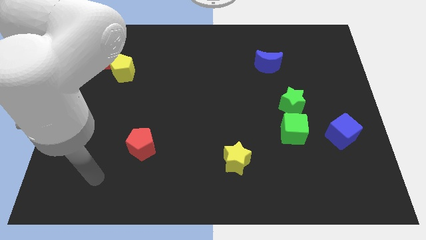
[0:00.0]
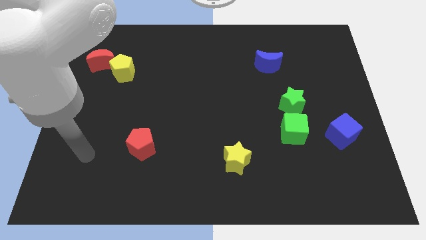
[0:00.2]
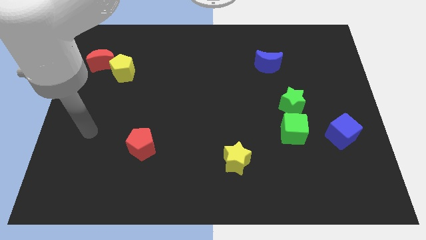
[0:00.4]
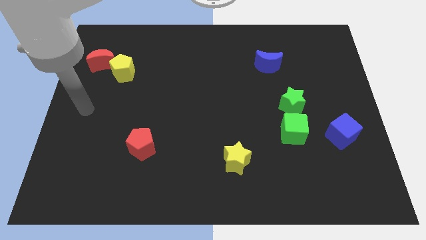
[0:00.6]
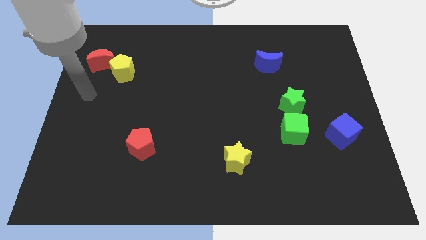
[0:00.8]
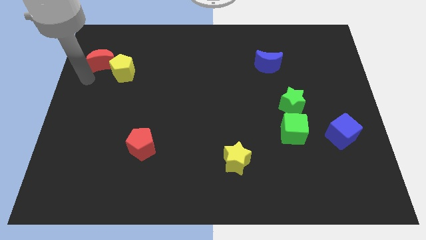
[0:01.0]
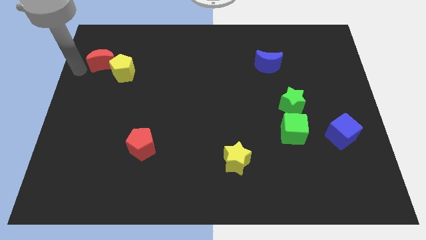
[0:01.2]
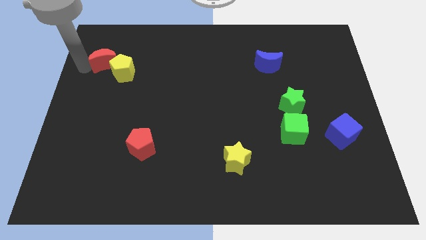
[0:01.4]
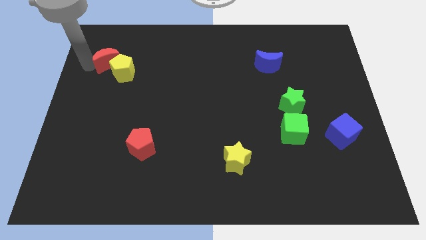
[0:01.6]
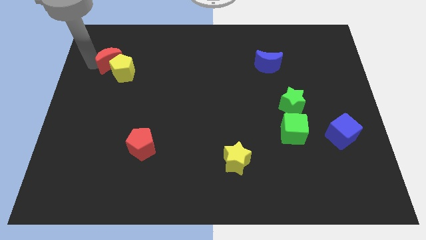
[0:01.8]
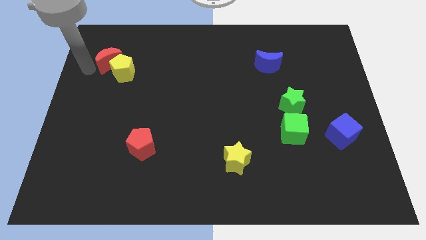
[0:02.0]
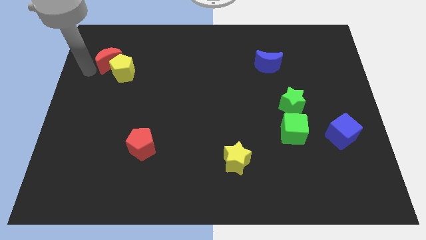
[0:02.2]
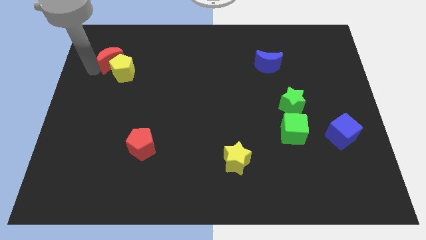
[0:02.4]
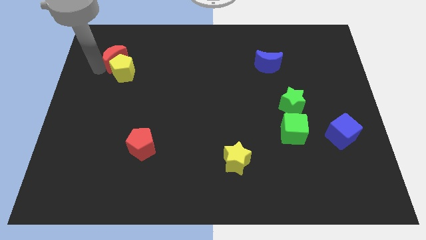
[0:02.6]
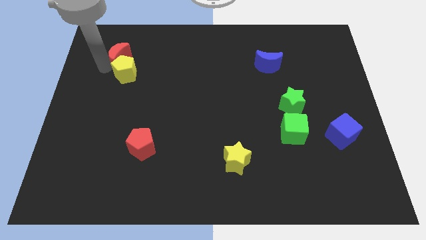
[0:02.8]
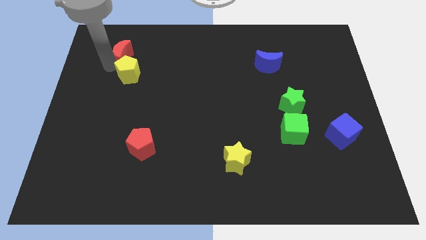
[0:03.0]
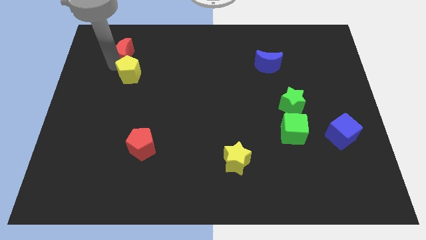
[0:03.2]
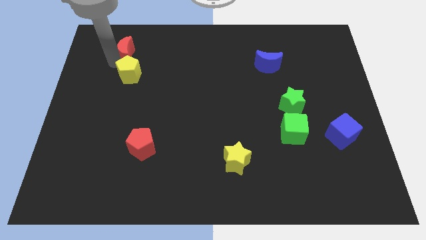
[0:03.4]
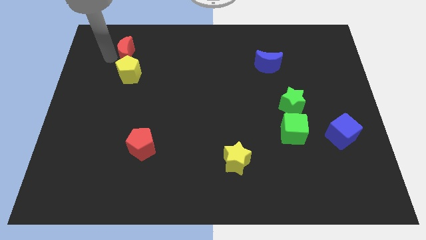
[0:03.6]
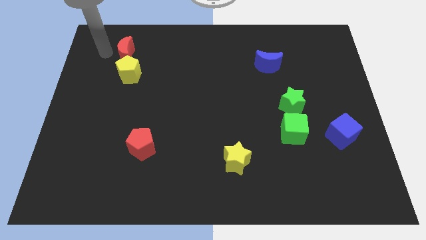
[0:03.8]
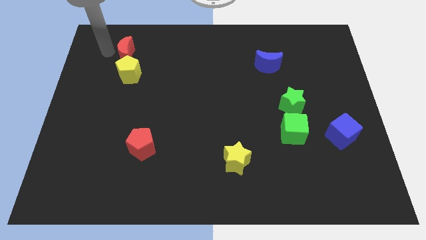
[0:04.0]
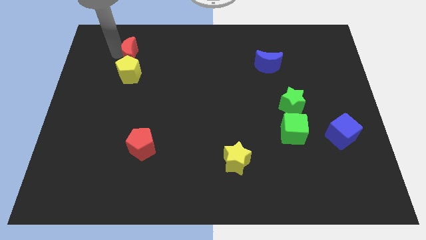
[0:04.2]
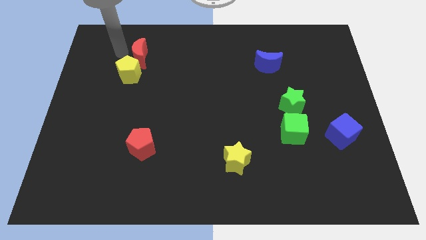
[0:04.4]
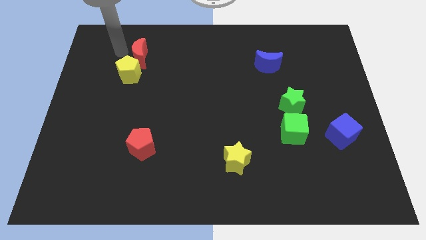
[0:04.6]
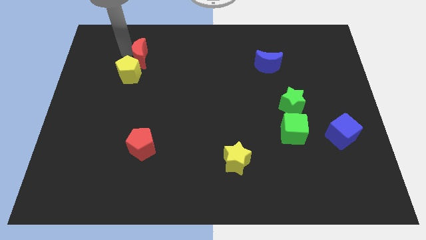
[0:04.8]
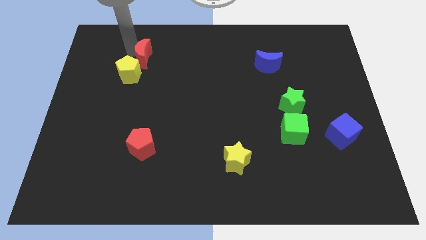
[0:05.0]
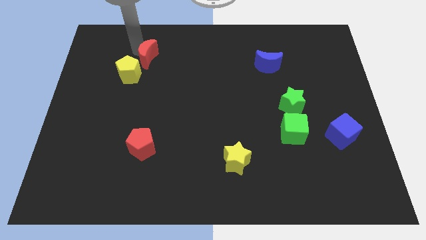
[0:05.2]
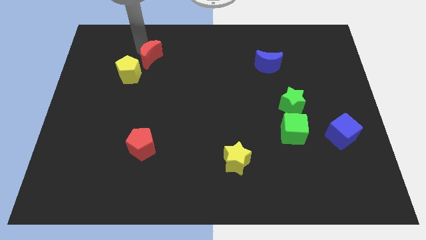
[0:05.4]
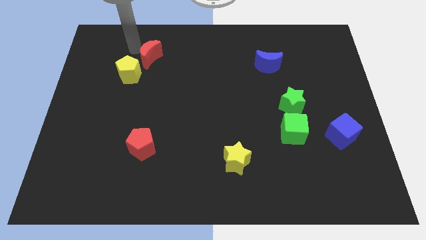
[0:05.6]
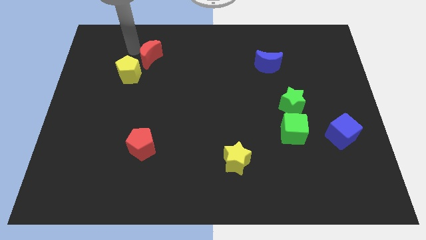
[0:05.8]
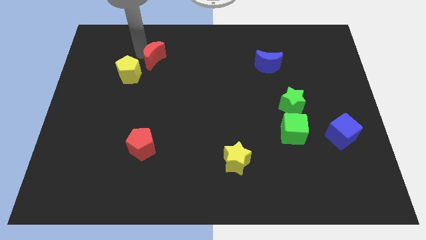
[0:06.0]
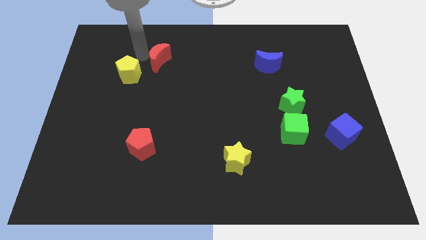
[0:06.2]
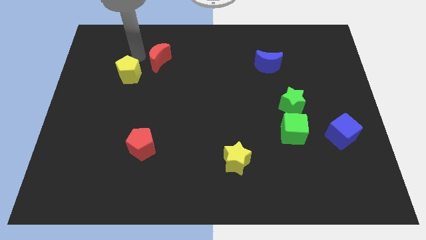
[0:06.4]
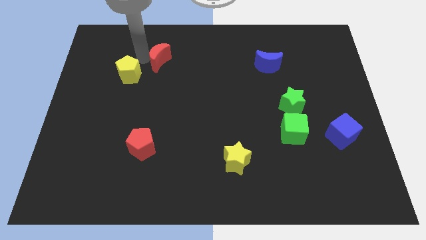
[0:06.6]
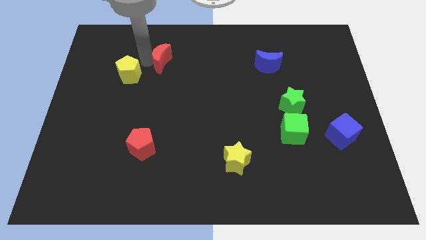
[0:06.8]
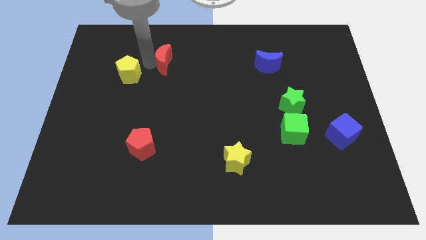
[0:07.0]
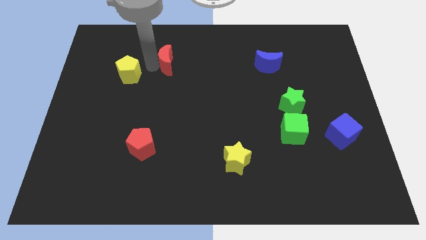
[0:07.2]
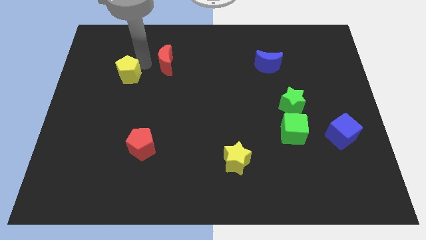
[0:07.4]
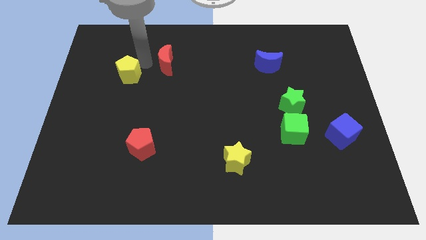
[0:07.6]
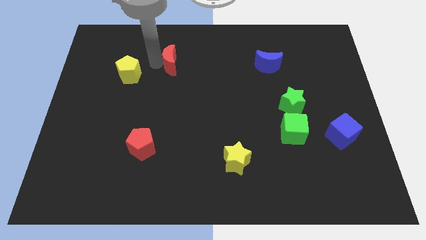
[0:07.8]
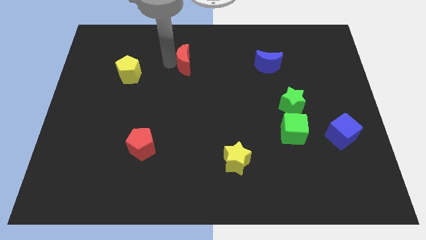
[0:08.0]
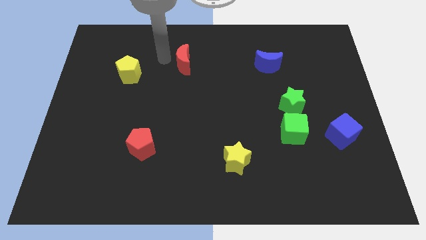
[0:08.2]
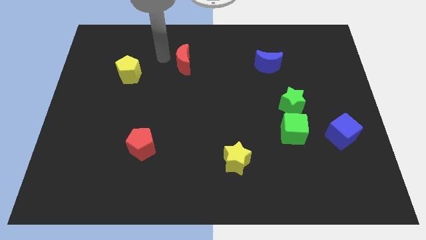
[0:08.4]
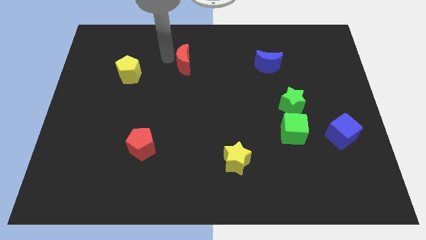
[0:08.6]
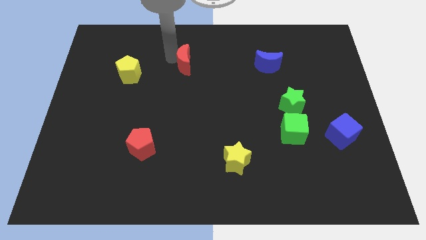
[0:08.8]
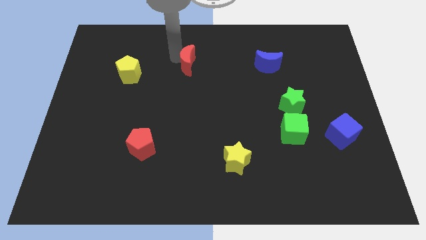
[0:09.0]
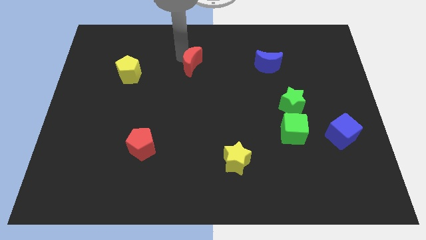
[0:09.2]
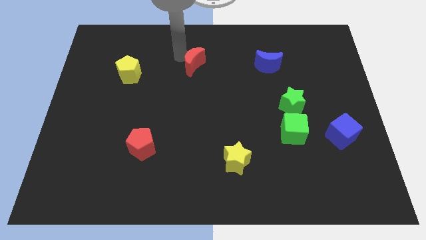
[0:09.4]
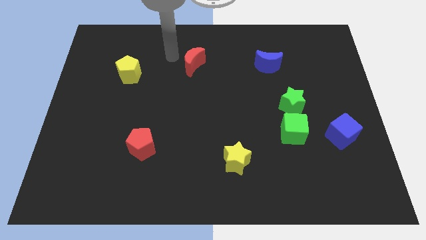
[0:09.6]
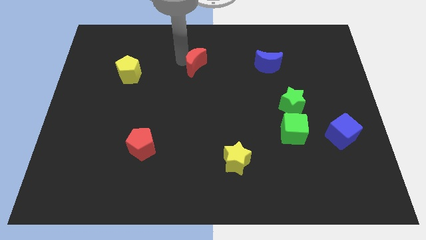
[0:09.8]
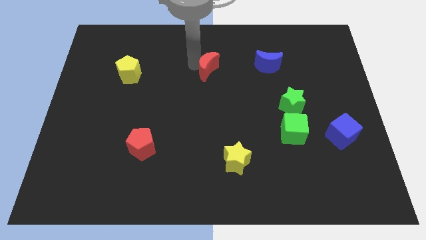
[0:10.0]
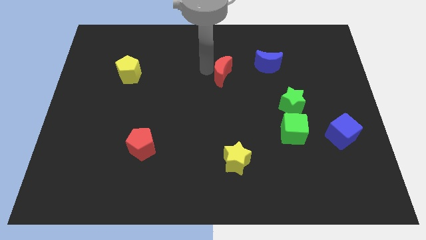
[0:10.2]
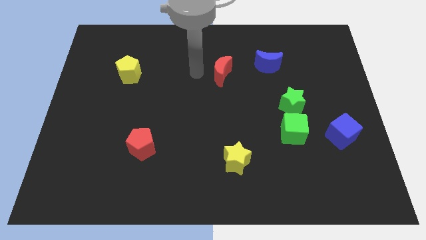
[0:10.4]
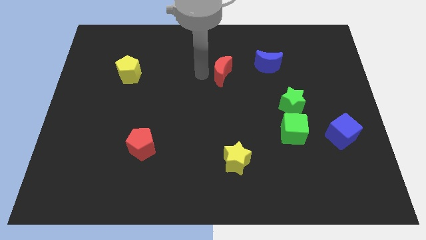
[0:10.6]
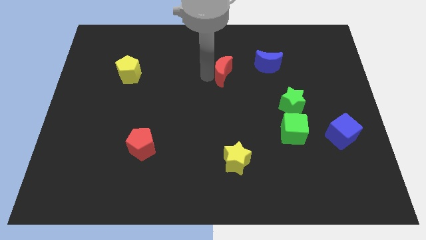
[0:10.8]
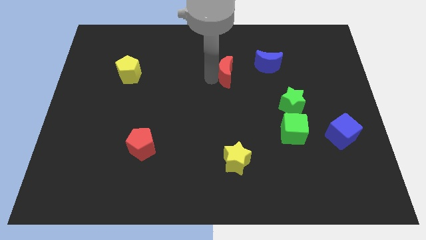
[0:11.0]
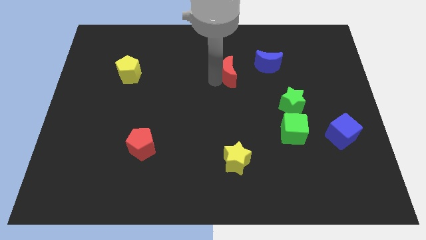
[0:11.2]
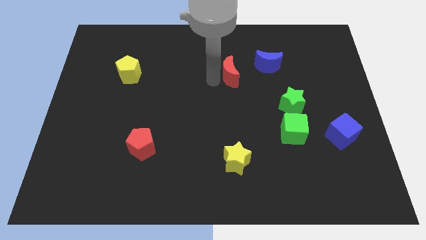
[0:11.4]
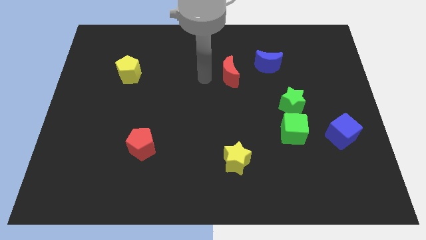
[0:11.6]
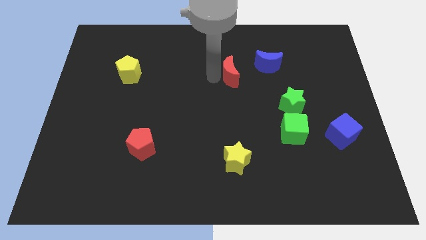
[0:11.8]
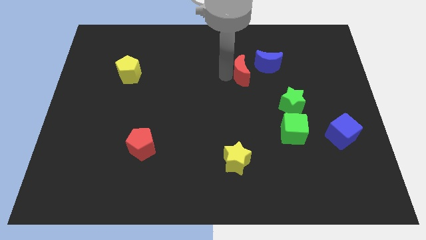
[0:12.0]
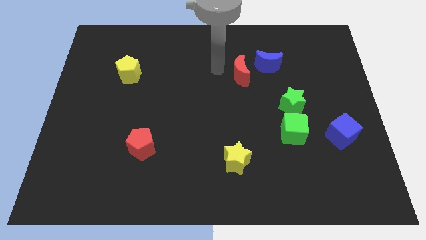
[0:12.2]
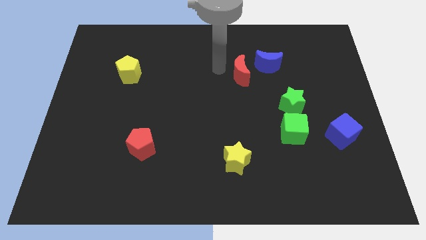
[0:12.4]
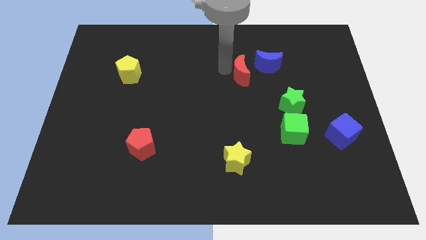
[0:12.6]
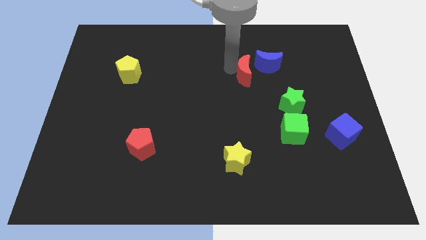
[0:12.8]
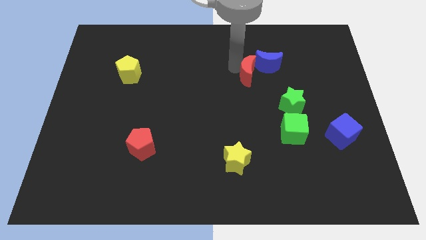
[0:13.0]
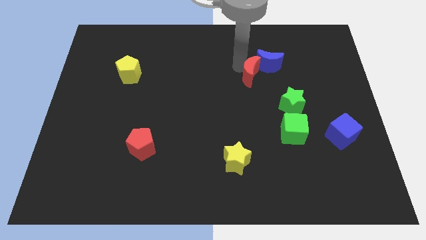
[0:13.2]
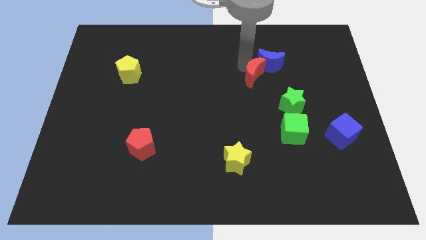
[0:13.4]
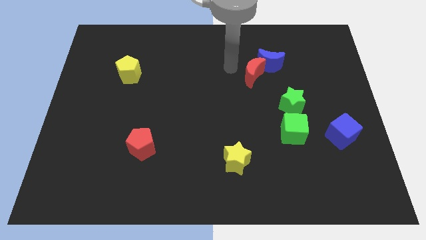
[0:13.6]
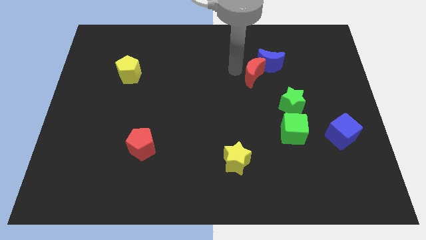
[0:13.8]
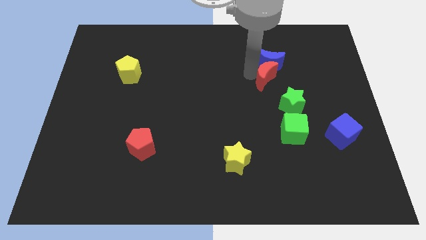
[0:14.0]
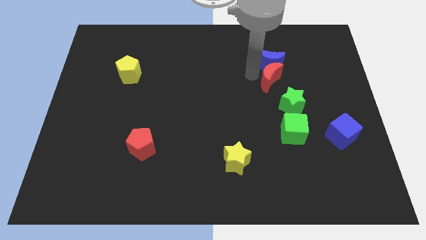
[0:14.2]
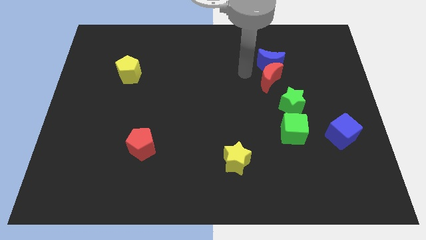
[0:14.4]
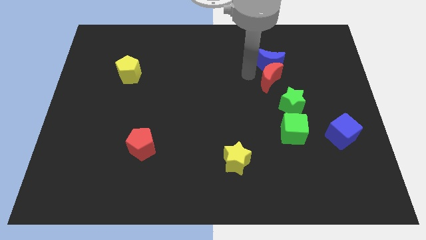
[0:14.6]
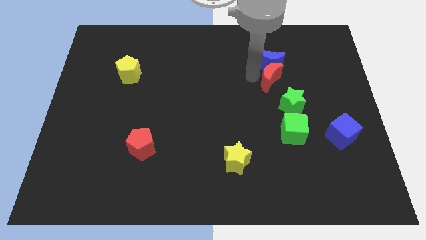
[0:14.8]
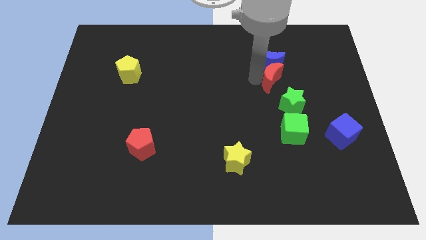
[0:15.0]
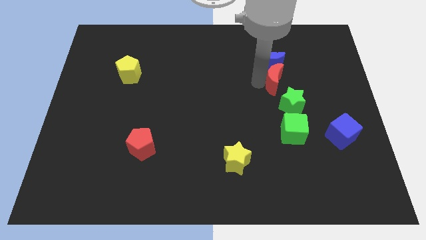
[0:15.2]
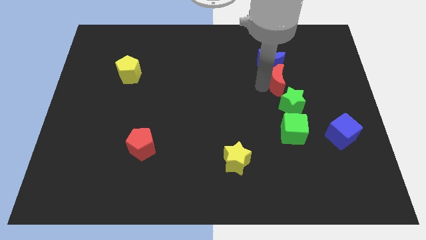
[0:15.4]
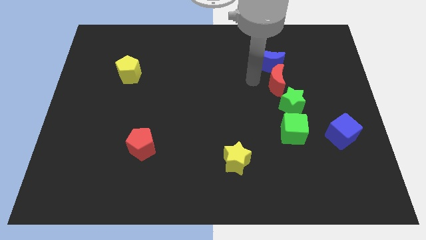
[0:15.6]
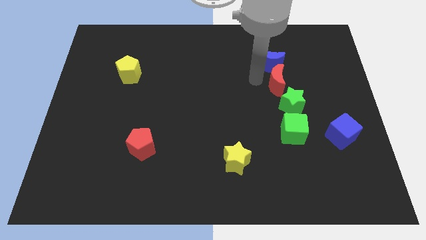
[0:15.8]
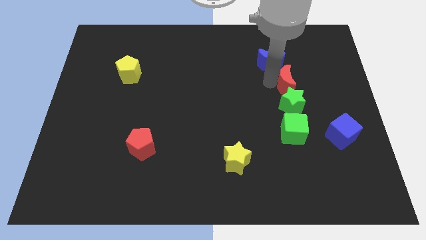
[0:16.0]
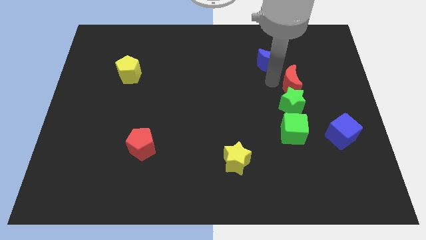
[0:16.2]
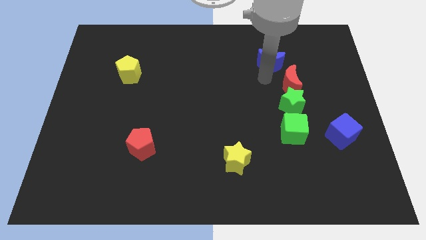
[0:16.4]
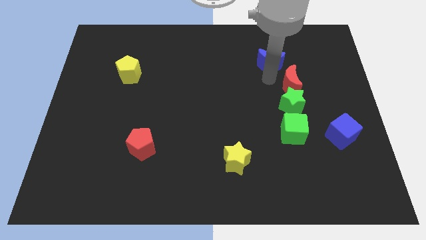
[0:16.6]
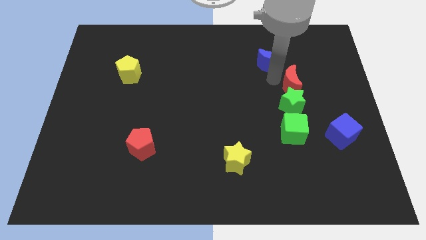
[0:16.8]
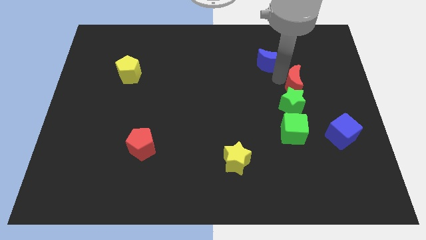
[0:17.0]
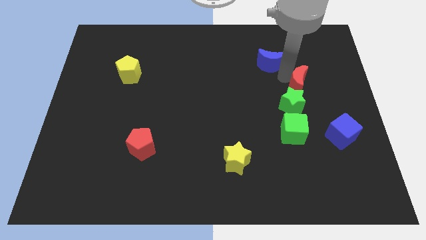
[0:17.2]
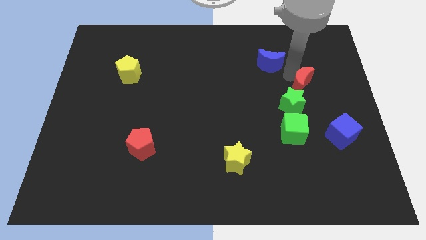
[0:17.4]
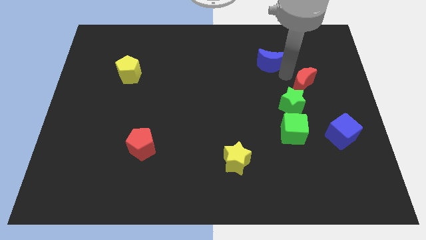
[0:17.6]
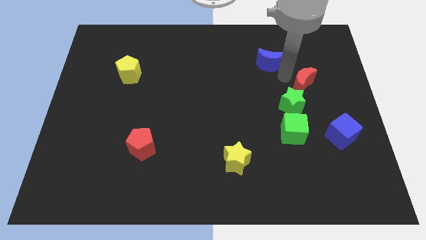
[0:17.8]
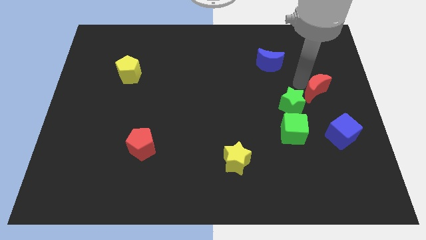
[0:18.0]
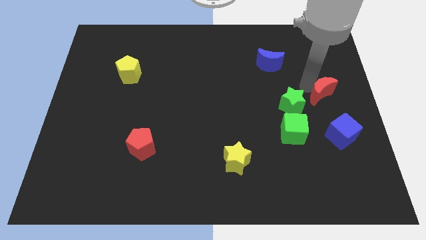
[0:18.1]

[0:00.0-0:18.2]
push the red moon to the right side of the board
